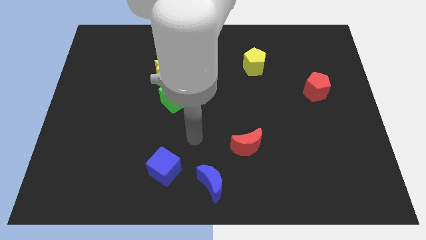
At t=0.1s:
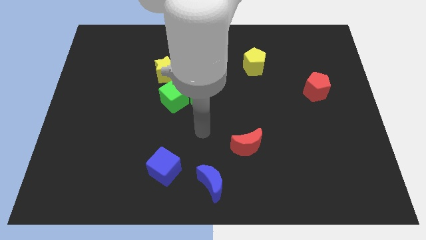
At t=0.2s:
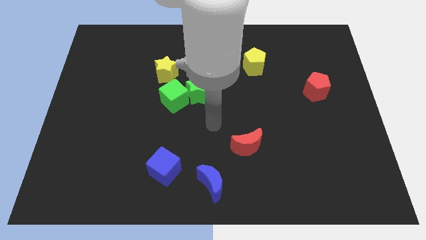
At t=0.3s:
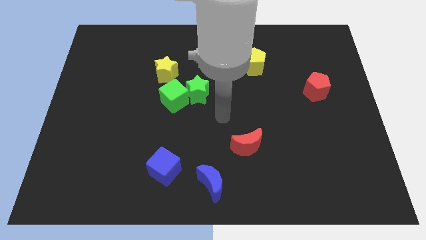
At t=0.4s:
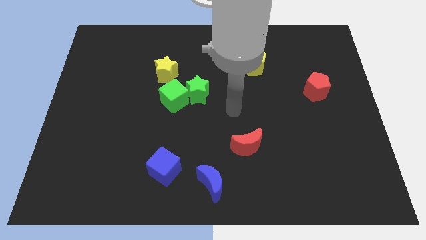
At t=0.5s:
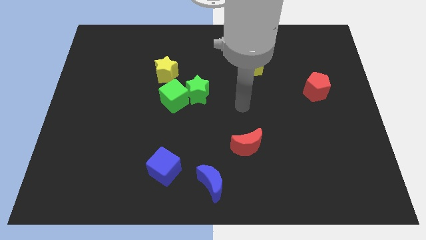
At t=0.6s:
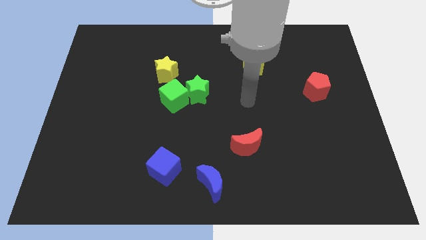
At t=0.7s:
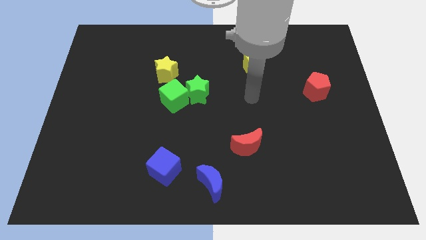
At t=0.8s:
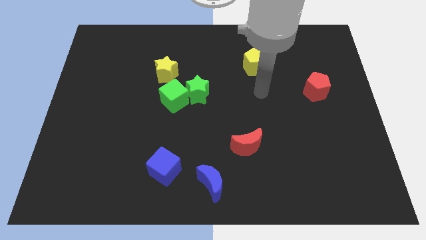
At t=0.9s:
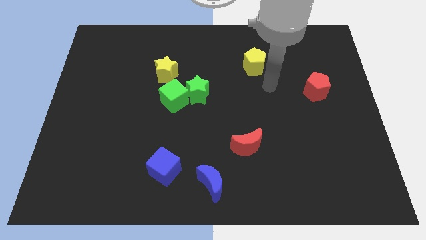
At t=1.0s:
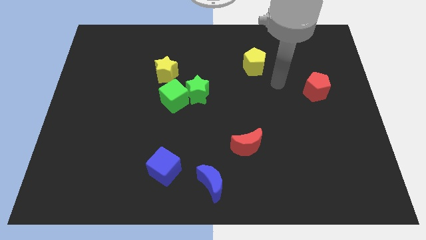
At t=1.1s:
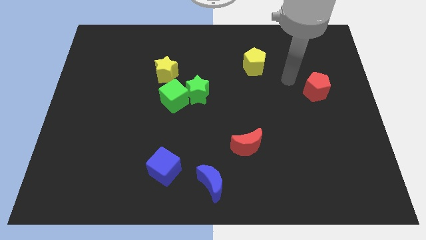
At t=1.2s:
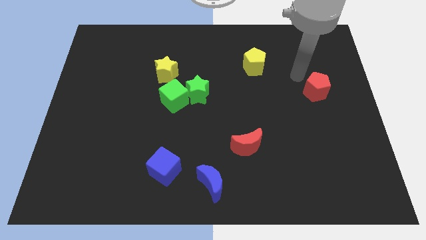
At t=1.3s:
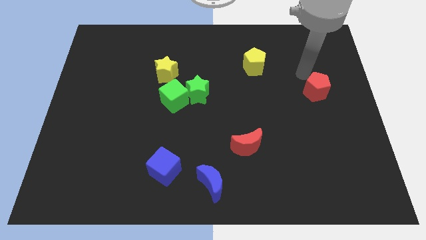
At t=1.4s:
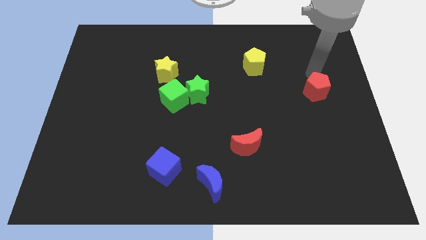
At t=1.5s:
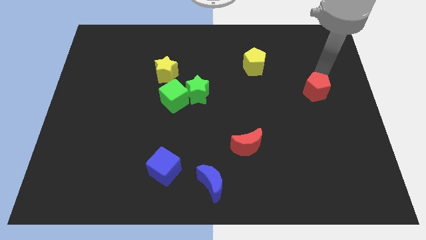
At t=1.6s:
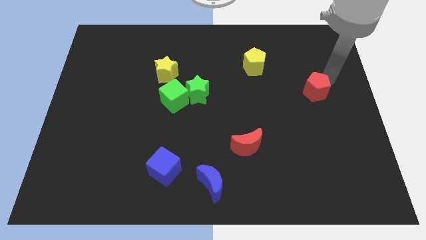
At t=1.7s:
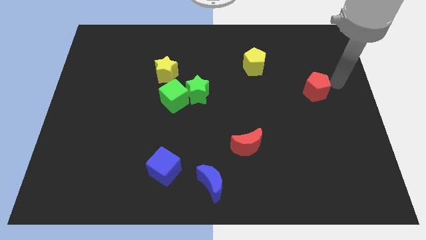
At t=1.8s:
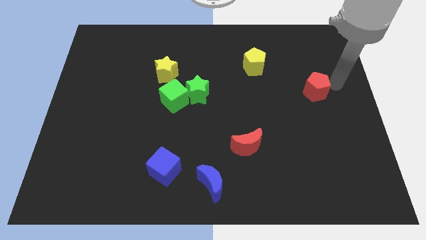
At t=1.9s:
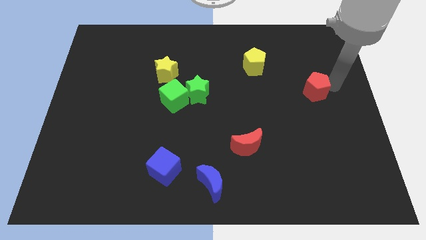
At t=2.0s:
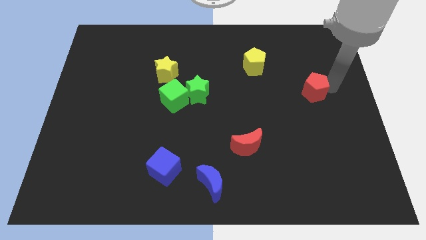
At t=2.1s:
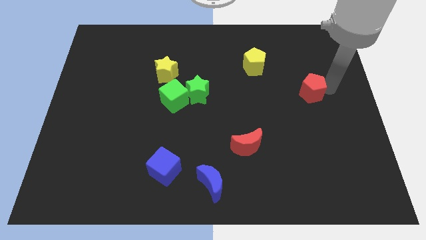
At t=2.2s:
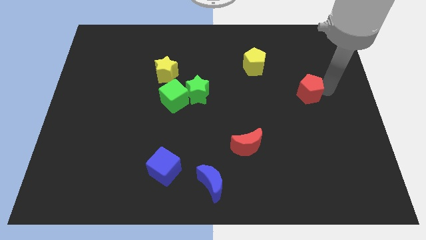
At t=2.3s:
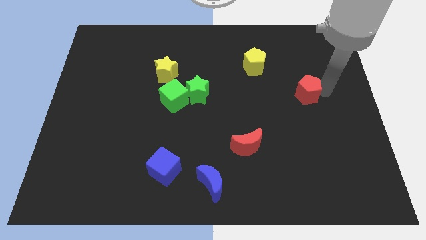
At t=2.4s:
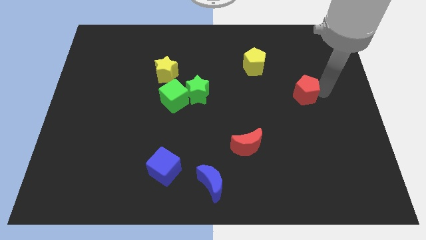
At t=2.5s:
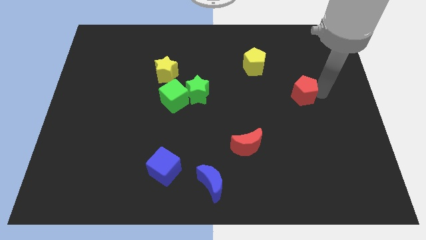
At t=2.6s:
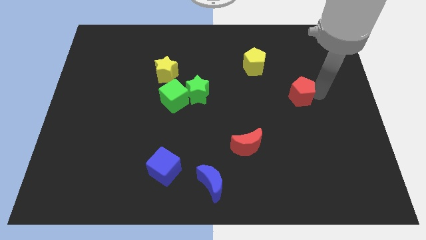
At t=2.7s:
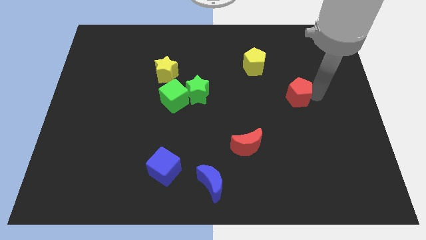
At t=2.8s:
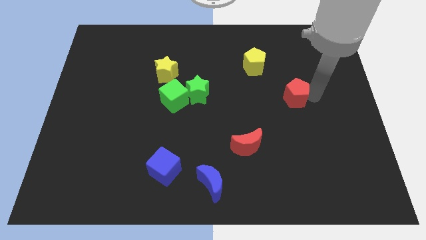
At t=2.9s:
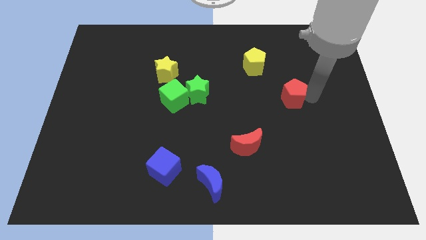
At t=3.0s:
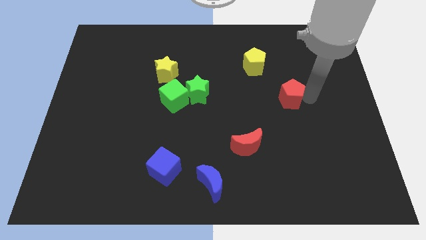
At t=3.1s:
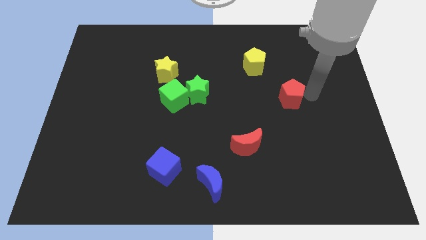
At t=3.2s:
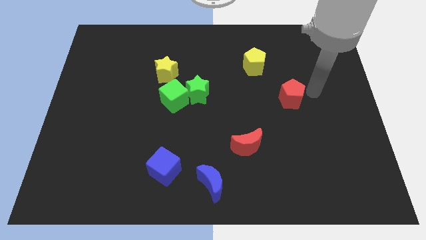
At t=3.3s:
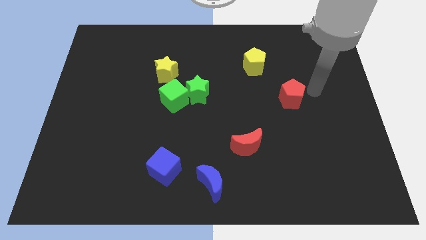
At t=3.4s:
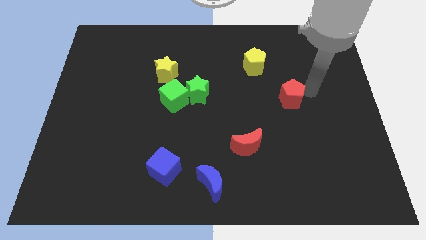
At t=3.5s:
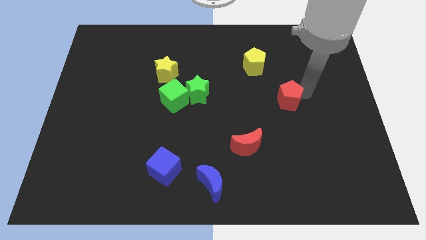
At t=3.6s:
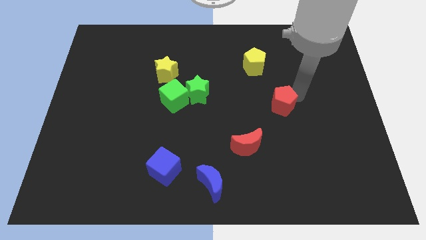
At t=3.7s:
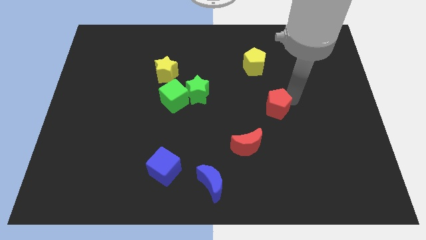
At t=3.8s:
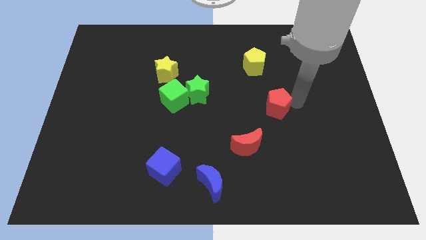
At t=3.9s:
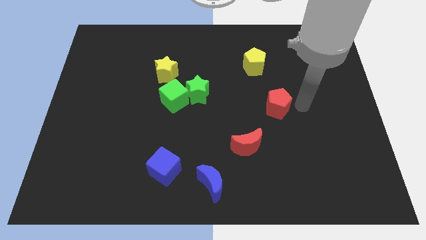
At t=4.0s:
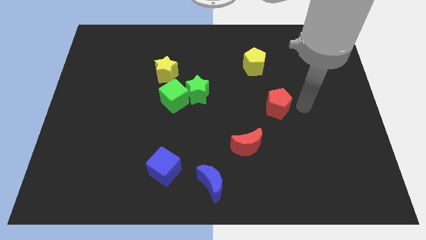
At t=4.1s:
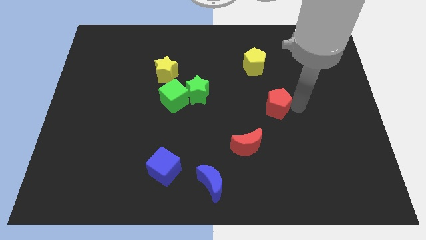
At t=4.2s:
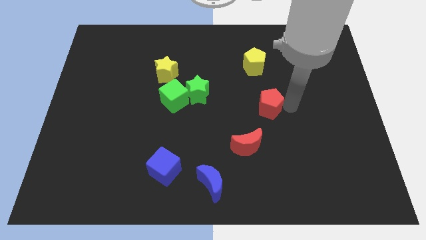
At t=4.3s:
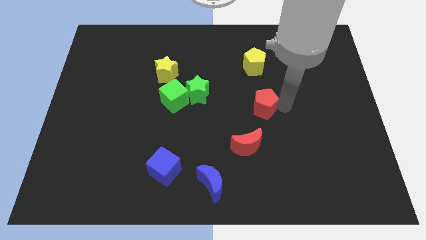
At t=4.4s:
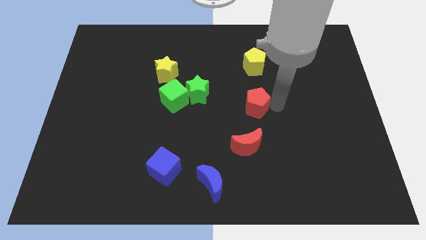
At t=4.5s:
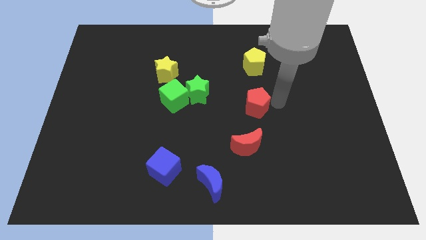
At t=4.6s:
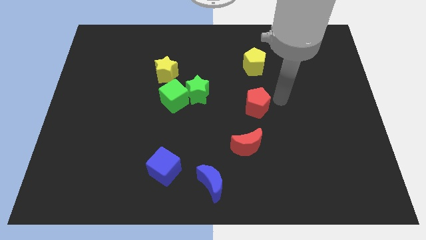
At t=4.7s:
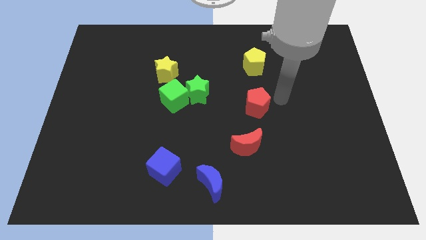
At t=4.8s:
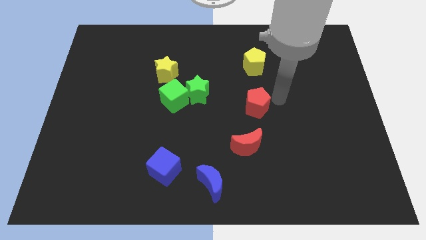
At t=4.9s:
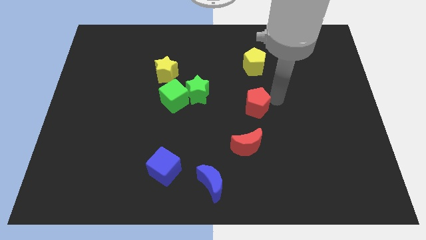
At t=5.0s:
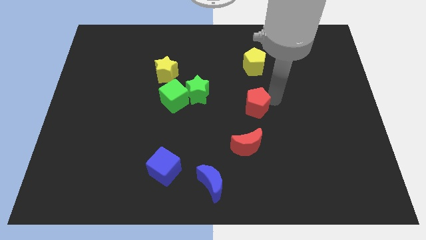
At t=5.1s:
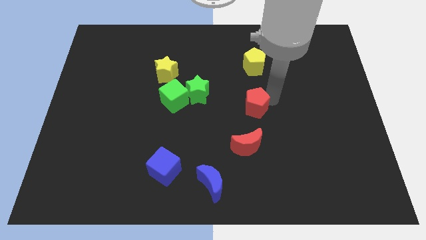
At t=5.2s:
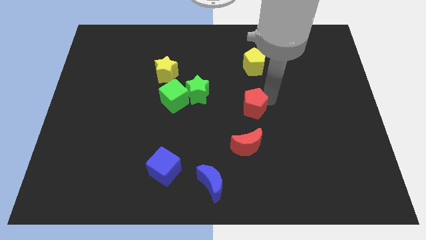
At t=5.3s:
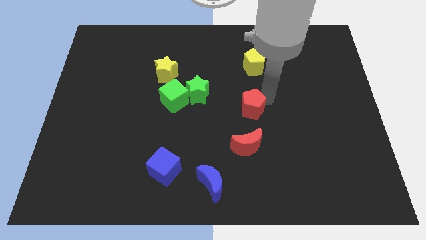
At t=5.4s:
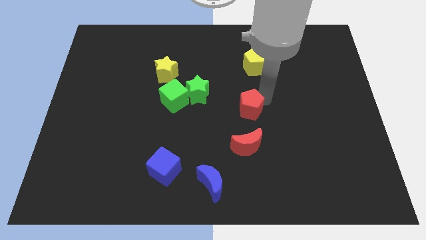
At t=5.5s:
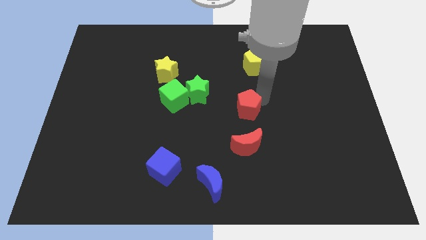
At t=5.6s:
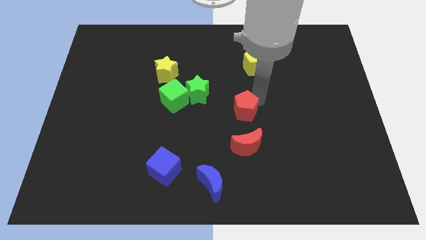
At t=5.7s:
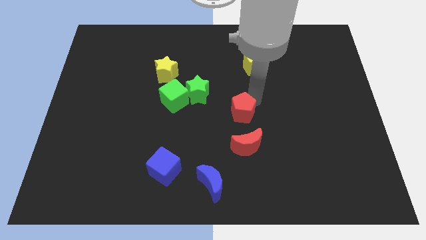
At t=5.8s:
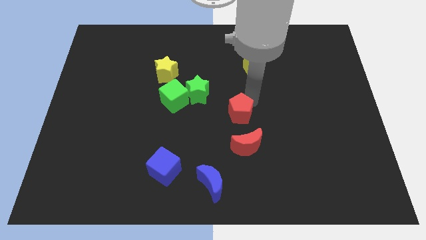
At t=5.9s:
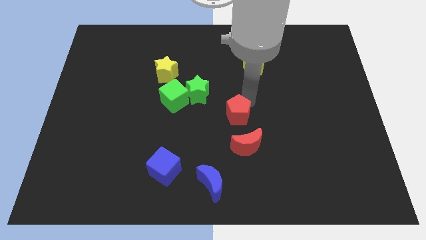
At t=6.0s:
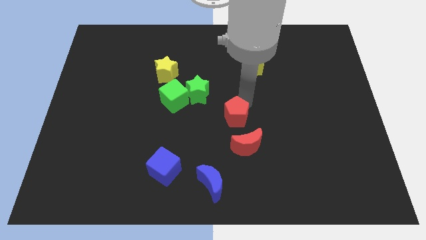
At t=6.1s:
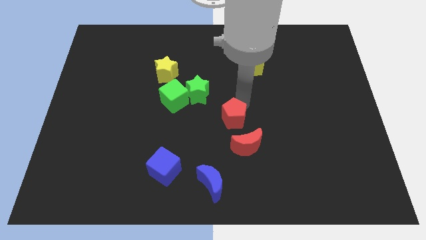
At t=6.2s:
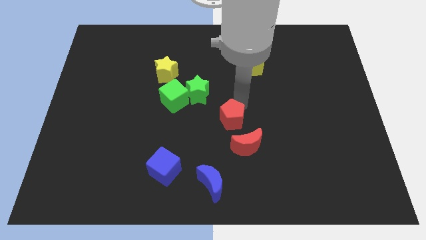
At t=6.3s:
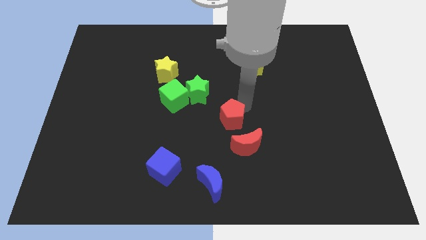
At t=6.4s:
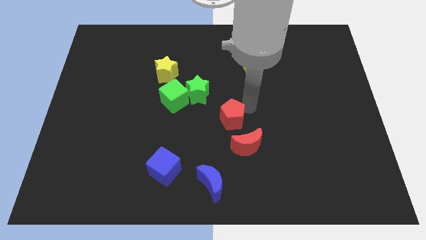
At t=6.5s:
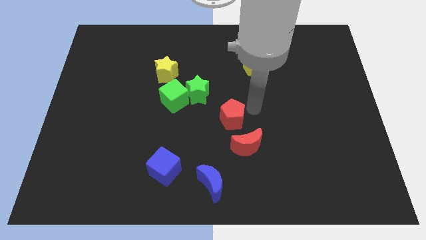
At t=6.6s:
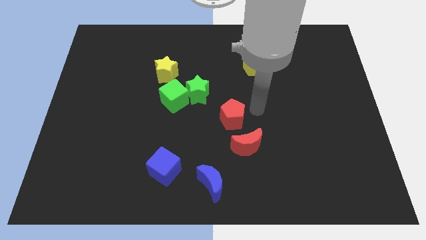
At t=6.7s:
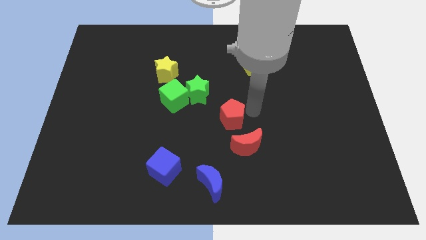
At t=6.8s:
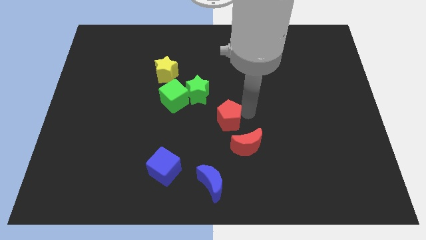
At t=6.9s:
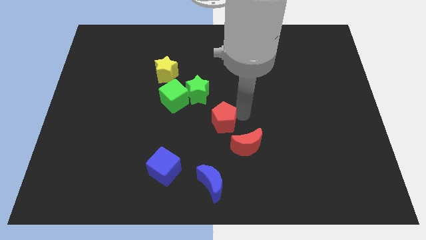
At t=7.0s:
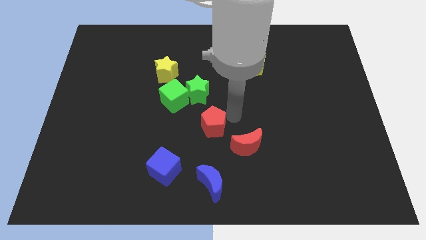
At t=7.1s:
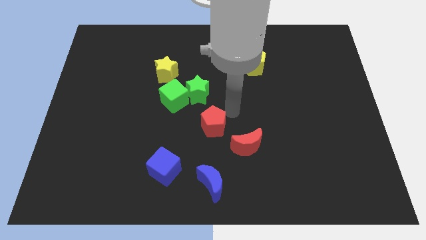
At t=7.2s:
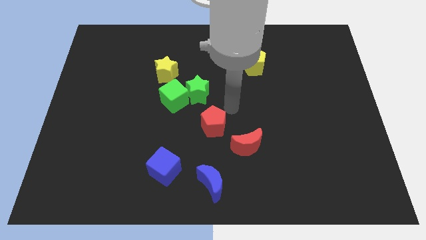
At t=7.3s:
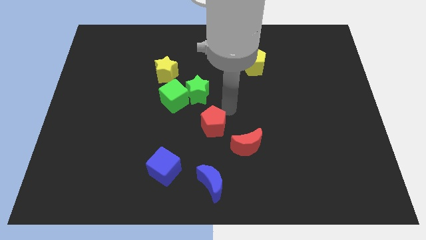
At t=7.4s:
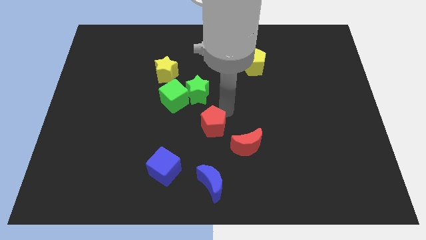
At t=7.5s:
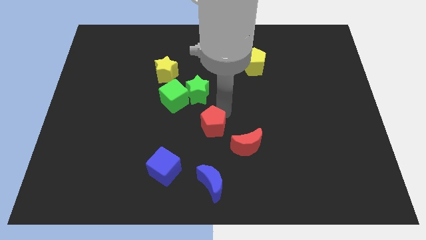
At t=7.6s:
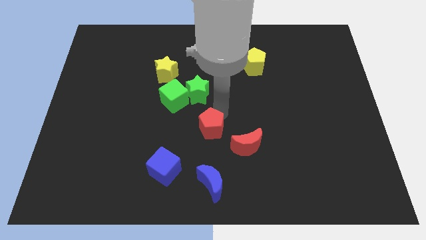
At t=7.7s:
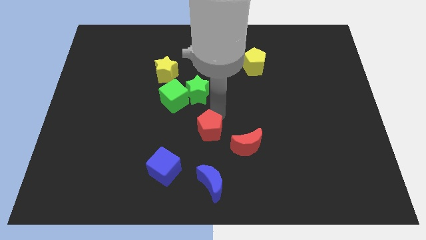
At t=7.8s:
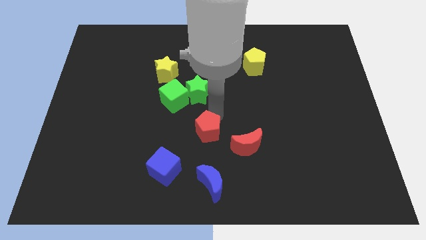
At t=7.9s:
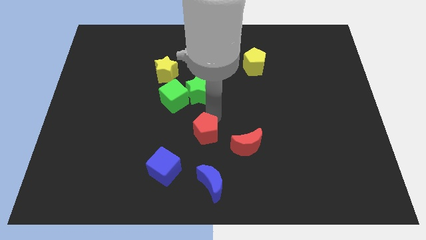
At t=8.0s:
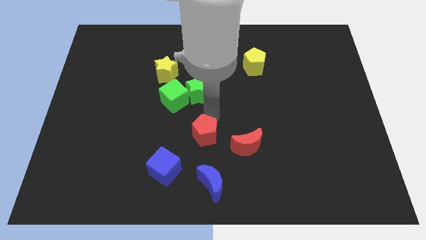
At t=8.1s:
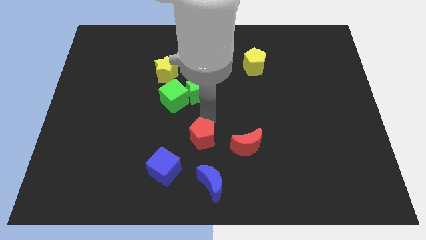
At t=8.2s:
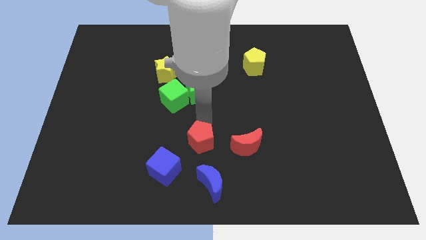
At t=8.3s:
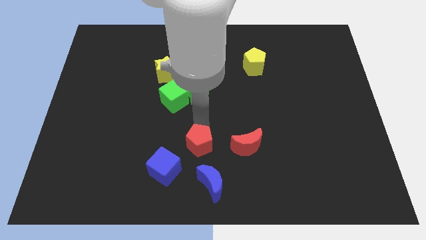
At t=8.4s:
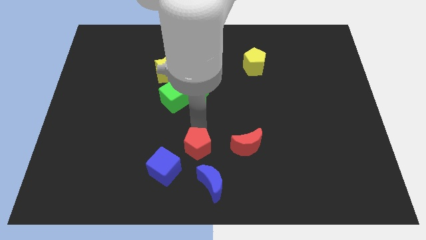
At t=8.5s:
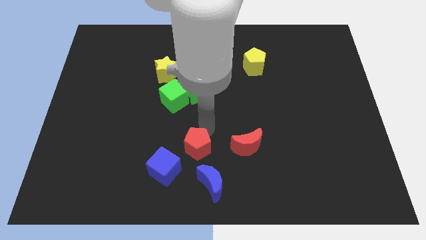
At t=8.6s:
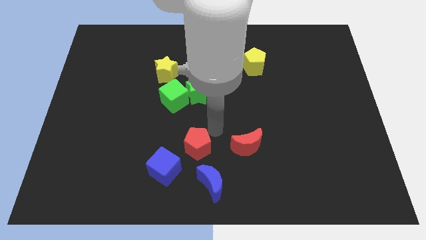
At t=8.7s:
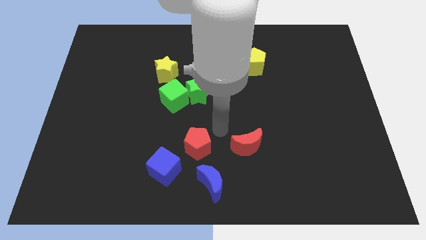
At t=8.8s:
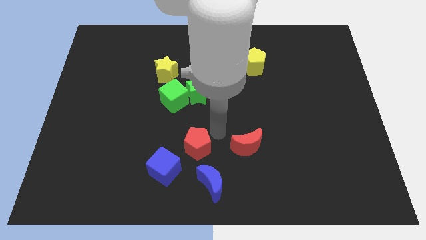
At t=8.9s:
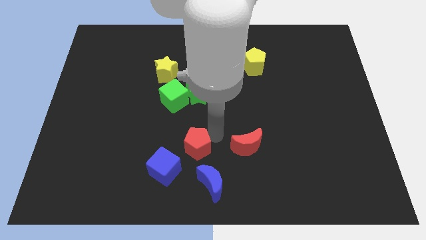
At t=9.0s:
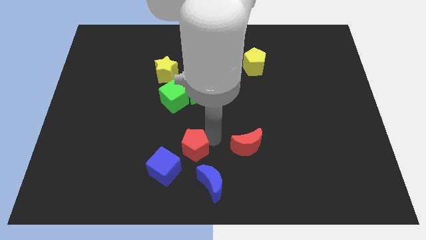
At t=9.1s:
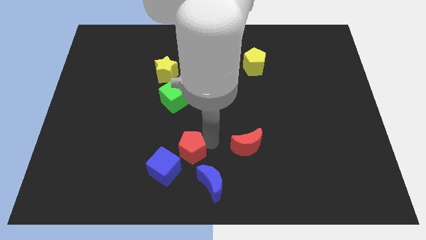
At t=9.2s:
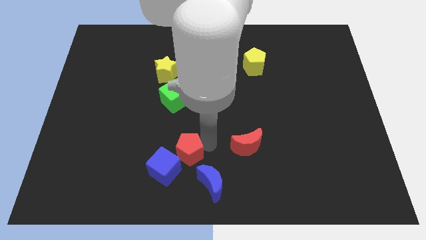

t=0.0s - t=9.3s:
slide the red pentagon towards the blue cube
